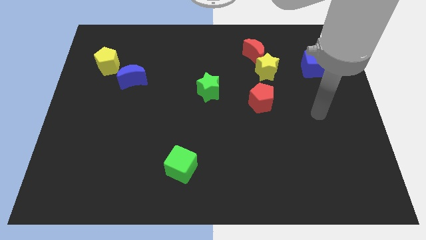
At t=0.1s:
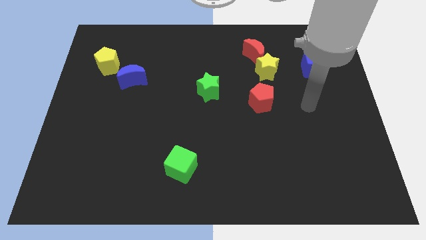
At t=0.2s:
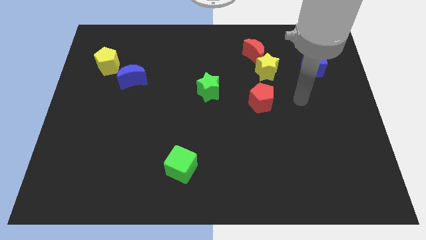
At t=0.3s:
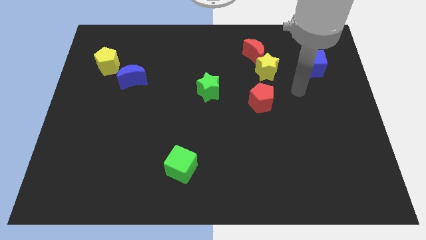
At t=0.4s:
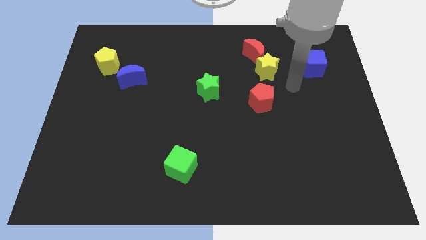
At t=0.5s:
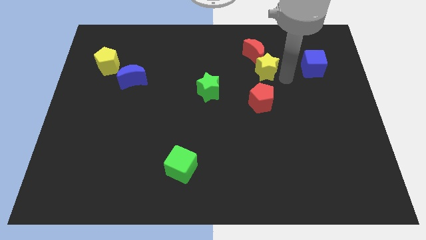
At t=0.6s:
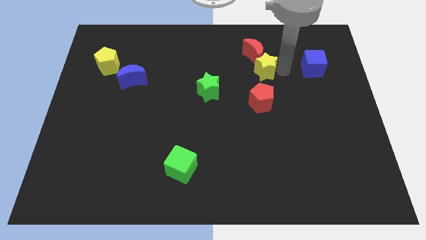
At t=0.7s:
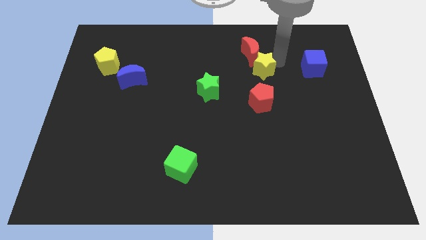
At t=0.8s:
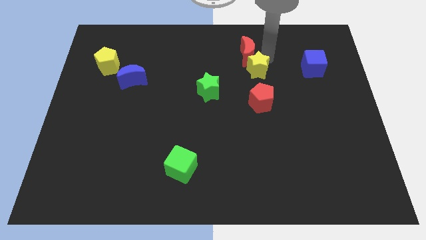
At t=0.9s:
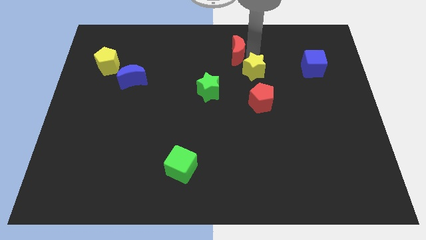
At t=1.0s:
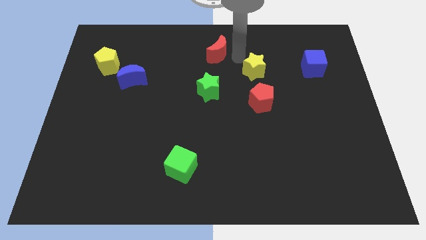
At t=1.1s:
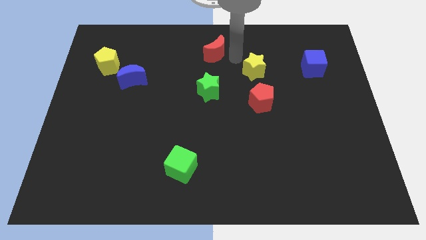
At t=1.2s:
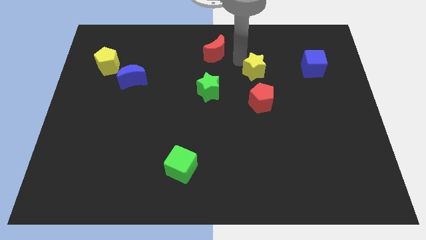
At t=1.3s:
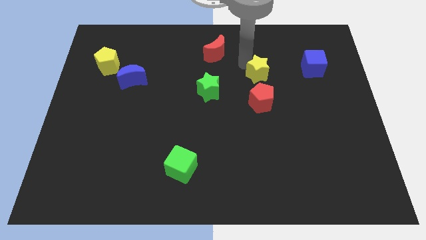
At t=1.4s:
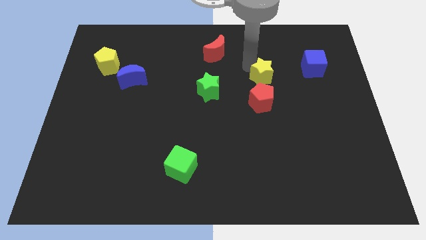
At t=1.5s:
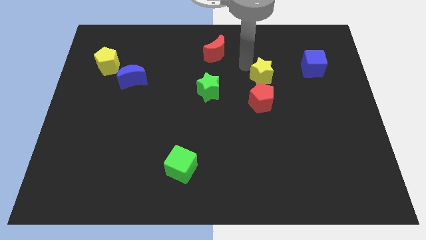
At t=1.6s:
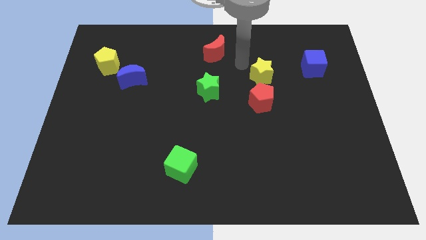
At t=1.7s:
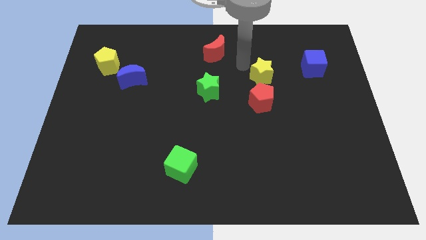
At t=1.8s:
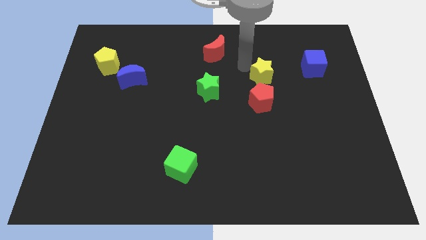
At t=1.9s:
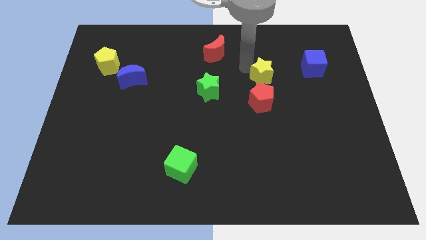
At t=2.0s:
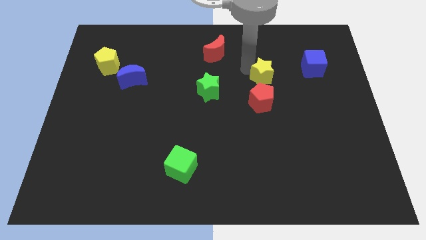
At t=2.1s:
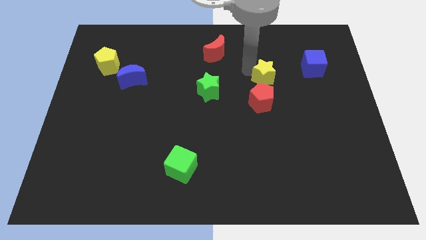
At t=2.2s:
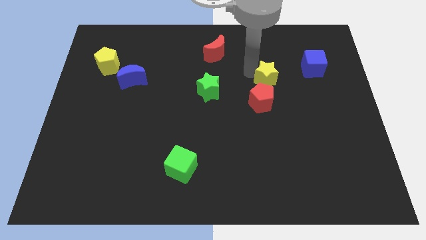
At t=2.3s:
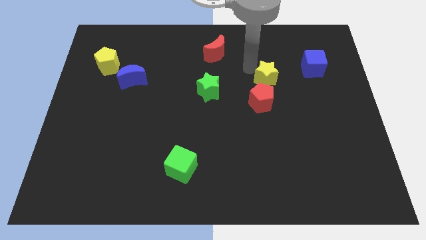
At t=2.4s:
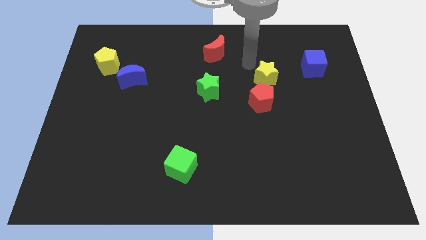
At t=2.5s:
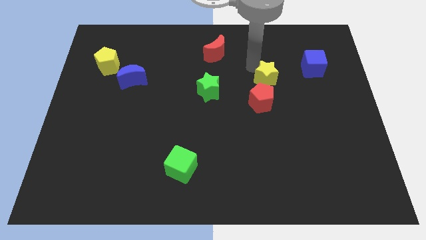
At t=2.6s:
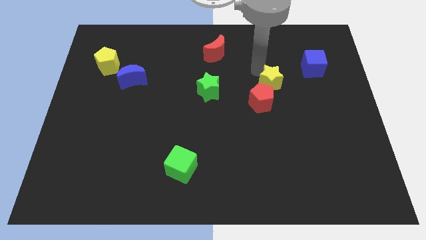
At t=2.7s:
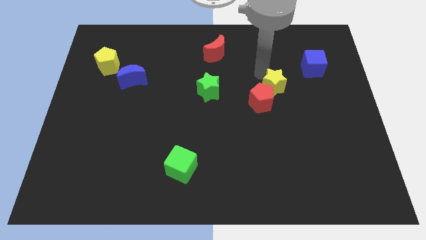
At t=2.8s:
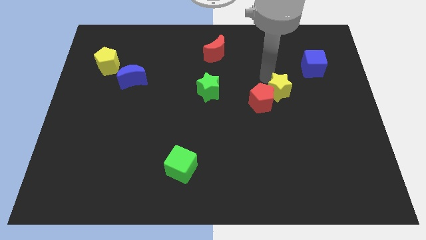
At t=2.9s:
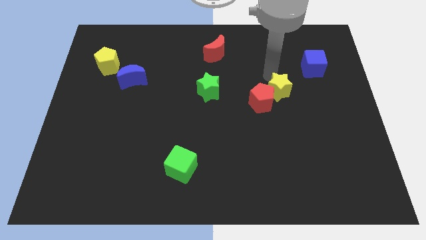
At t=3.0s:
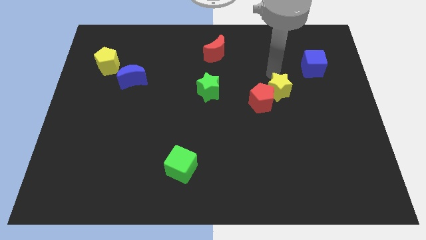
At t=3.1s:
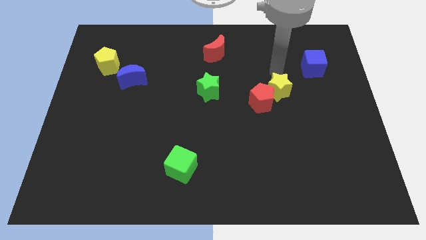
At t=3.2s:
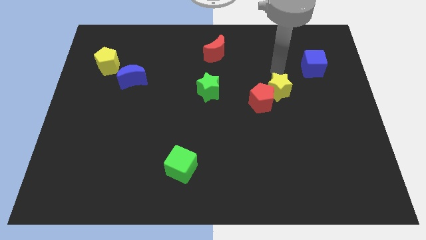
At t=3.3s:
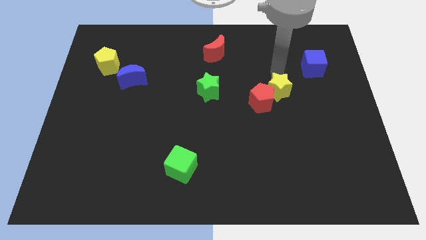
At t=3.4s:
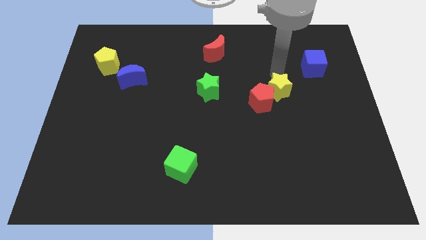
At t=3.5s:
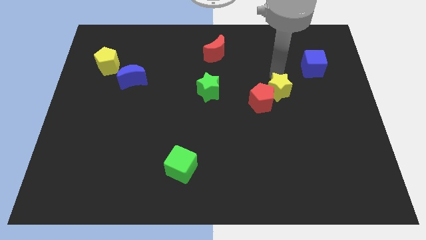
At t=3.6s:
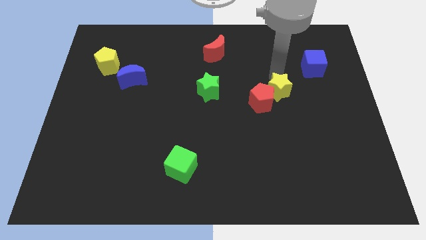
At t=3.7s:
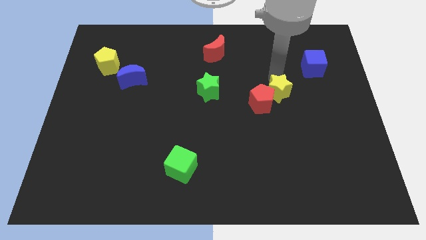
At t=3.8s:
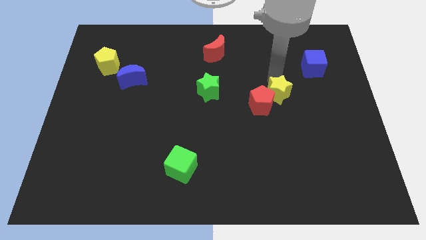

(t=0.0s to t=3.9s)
push the yellow star a little bit downwards

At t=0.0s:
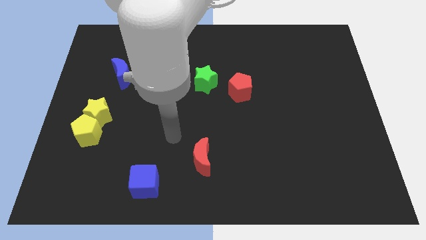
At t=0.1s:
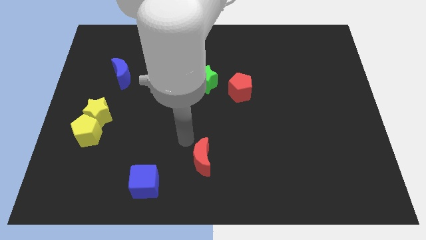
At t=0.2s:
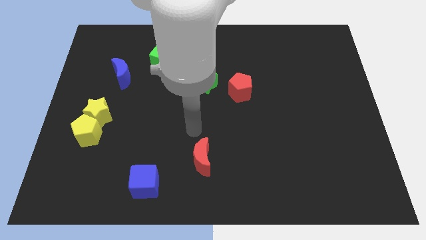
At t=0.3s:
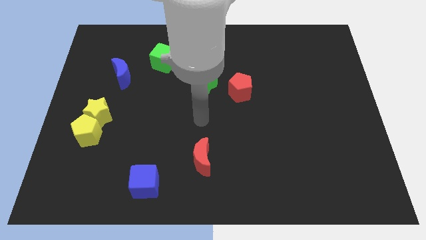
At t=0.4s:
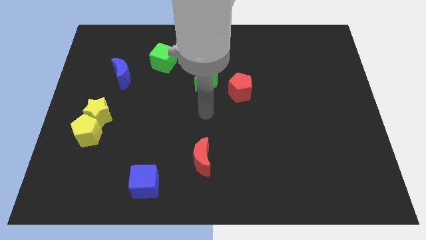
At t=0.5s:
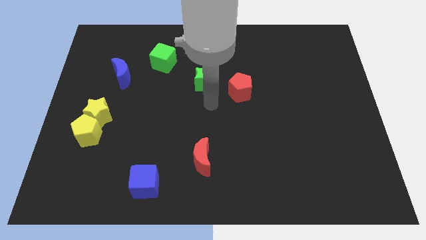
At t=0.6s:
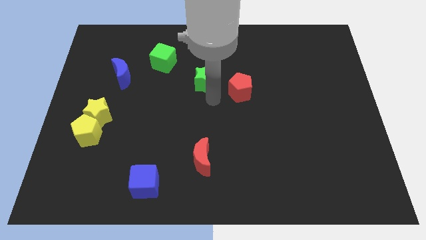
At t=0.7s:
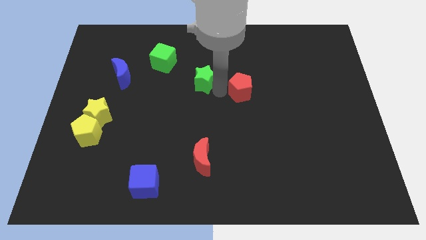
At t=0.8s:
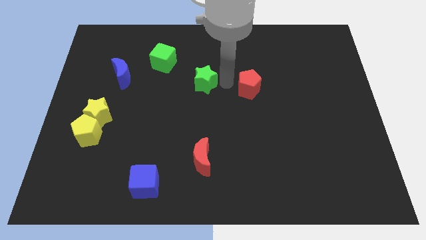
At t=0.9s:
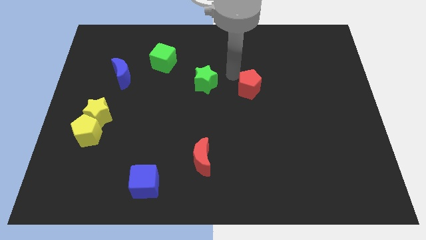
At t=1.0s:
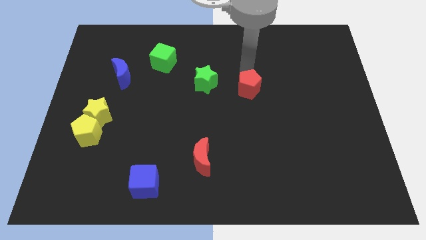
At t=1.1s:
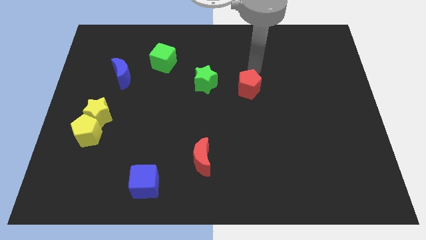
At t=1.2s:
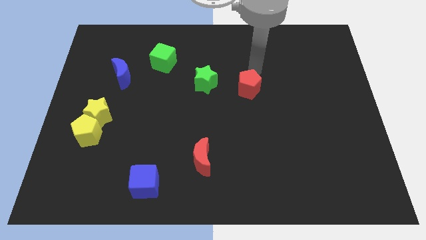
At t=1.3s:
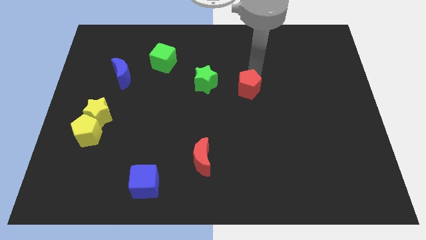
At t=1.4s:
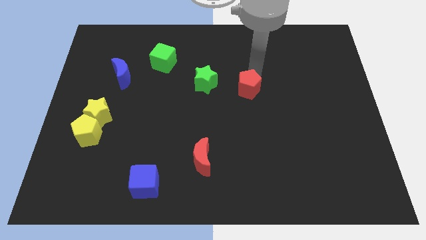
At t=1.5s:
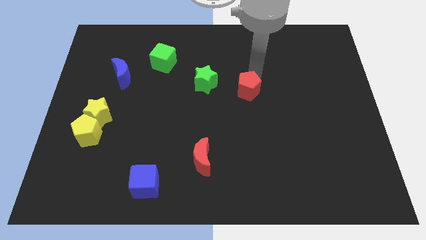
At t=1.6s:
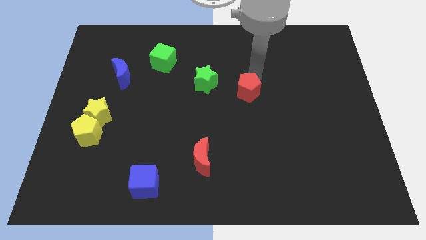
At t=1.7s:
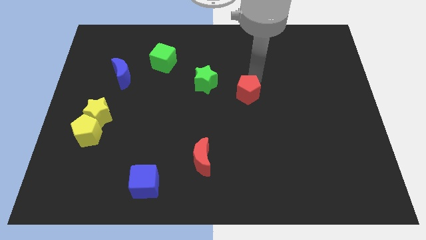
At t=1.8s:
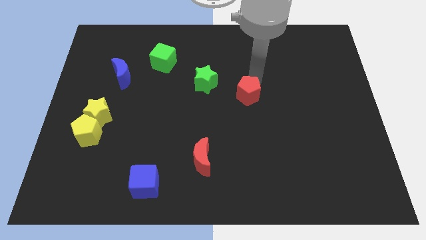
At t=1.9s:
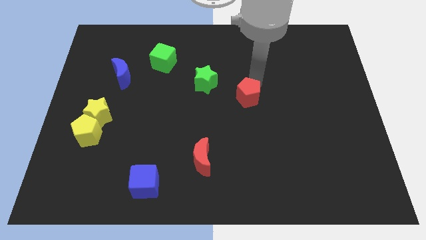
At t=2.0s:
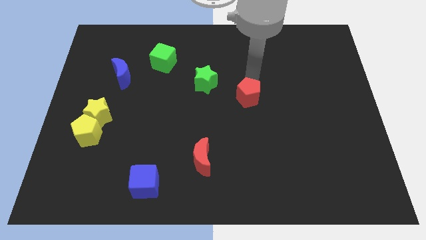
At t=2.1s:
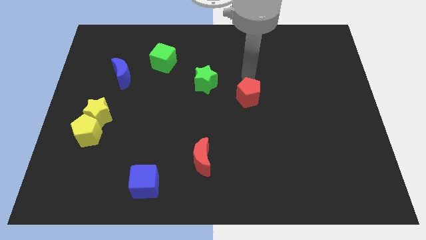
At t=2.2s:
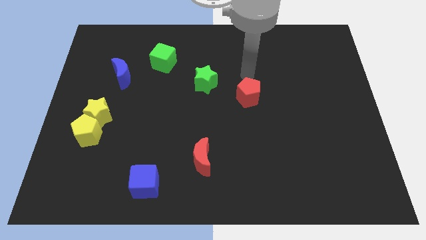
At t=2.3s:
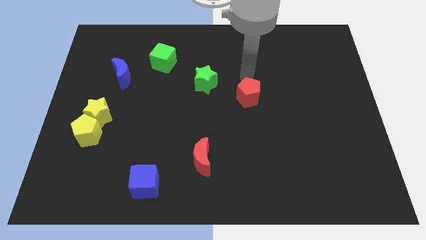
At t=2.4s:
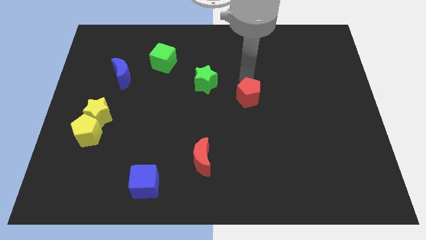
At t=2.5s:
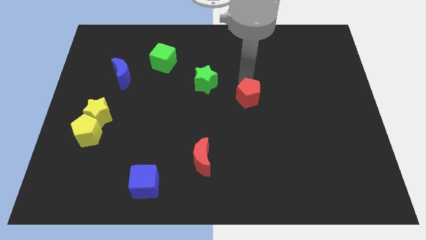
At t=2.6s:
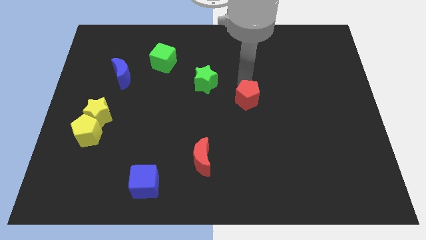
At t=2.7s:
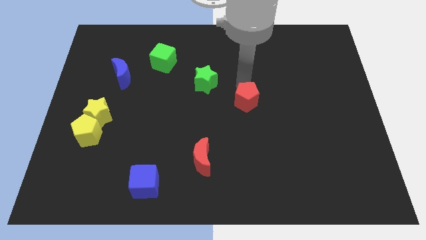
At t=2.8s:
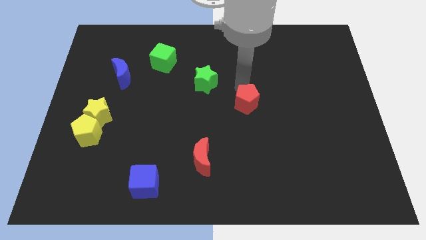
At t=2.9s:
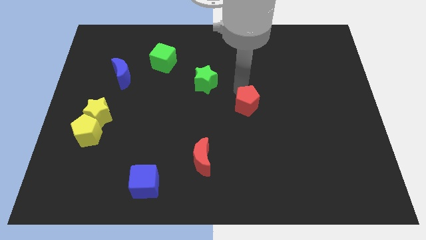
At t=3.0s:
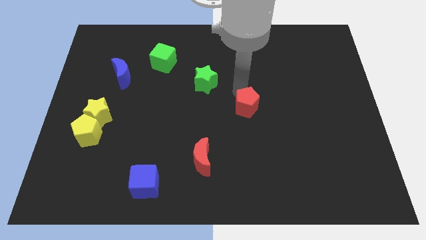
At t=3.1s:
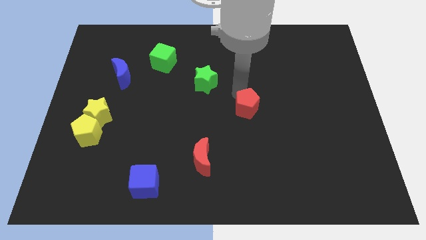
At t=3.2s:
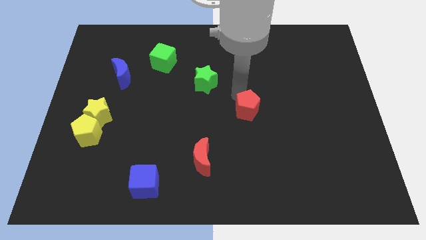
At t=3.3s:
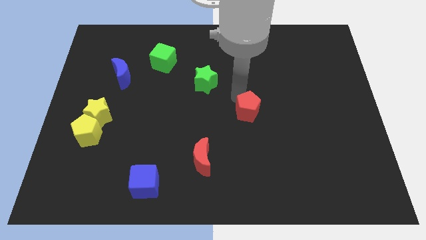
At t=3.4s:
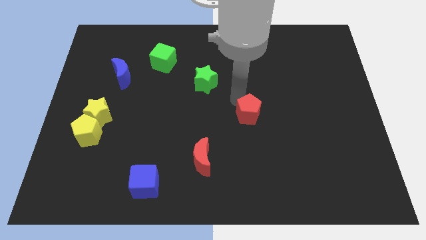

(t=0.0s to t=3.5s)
push the red pentagon a bit downwards

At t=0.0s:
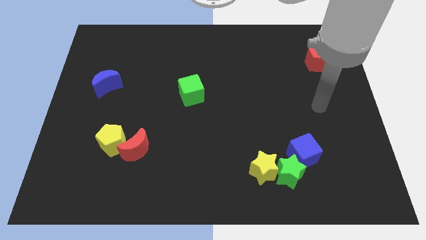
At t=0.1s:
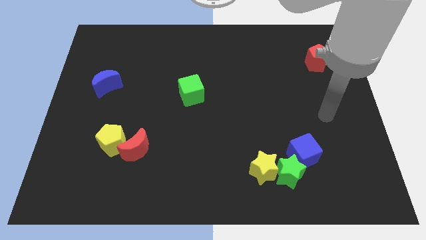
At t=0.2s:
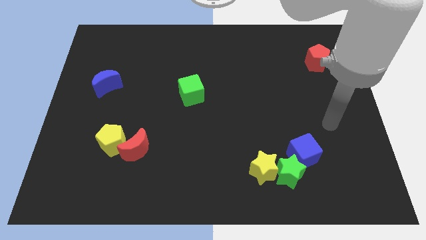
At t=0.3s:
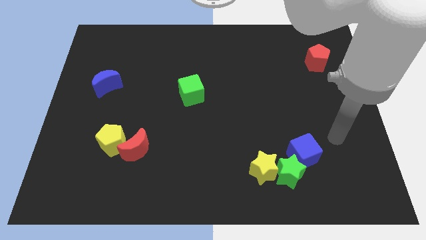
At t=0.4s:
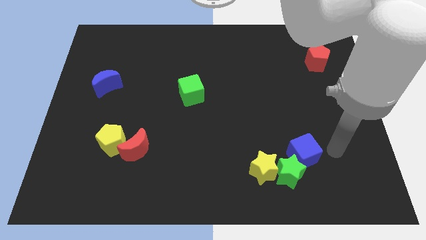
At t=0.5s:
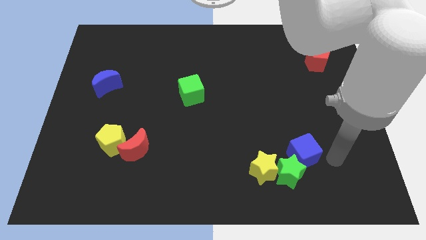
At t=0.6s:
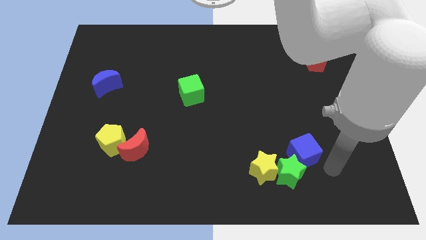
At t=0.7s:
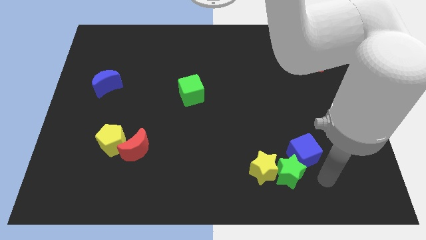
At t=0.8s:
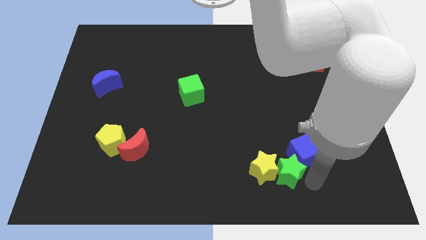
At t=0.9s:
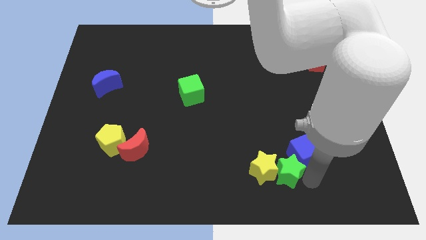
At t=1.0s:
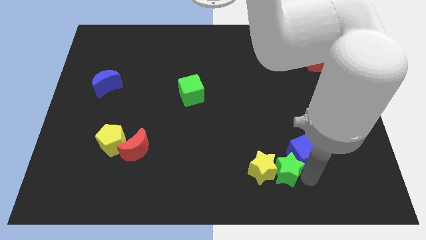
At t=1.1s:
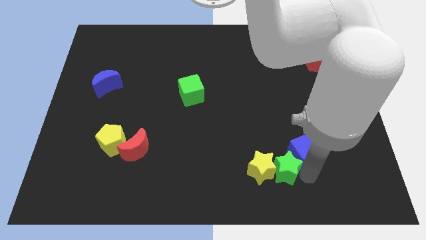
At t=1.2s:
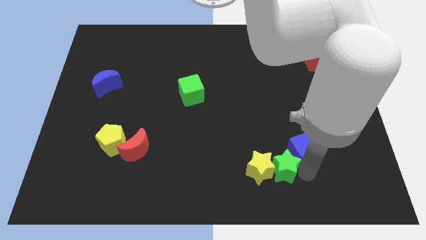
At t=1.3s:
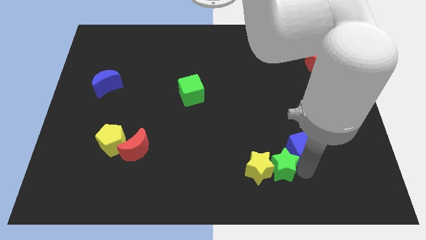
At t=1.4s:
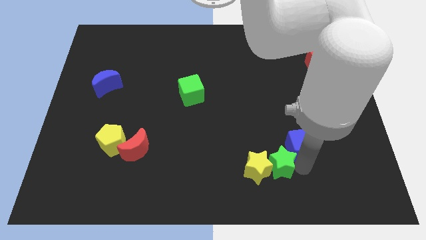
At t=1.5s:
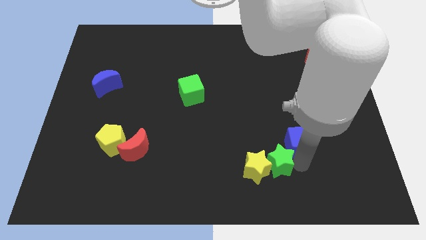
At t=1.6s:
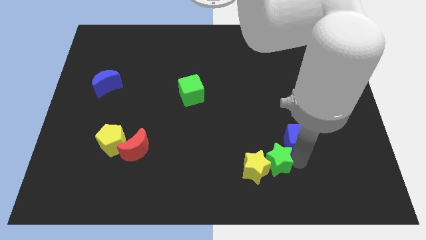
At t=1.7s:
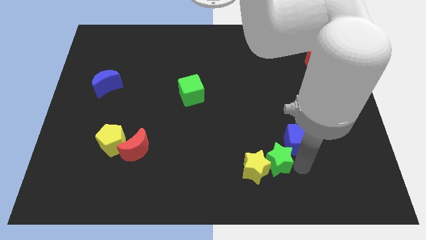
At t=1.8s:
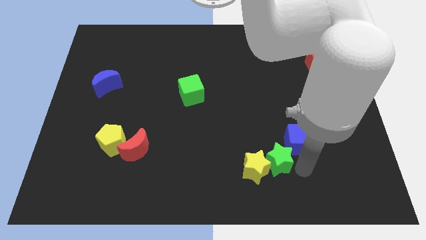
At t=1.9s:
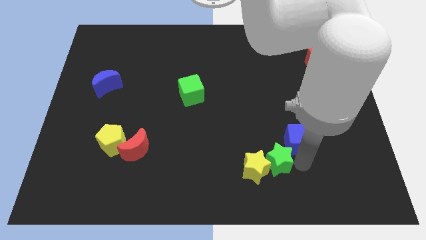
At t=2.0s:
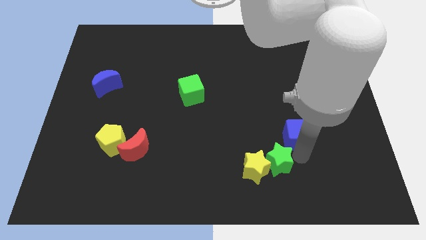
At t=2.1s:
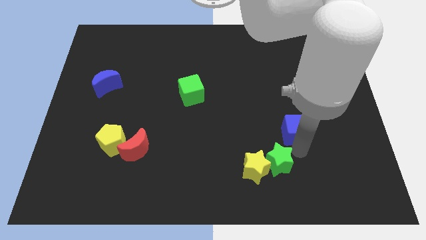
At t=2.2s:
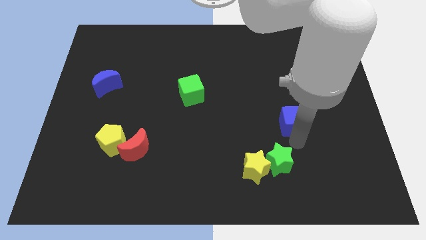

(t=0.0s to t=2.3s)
slightly slide the blue cube upwards
